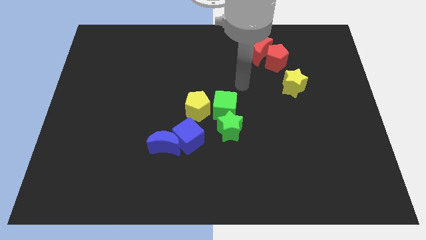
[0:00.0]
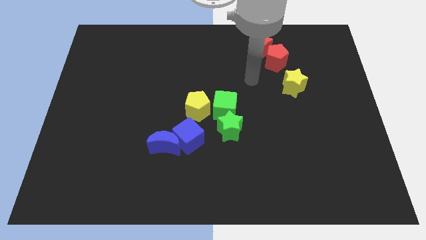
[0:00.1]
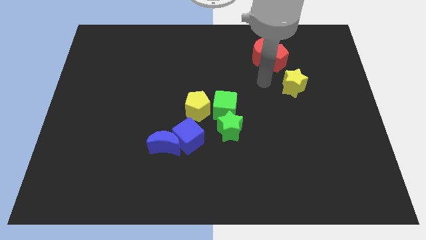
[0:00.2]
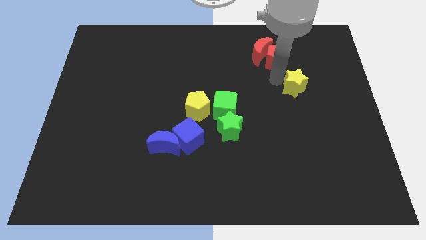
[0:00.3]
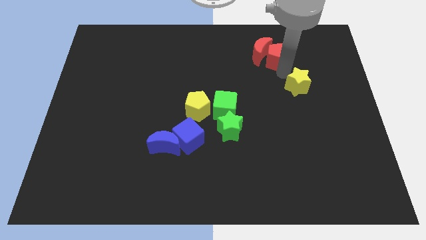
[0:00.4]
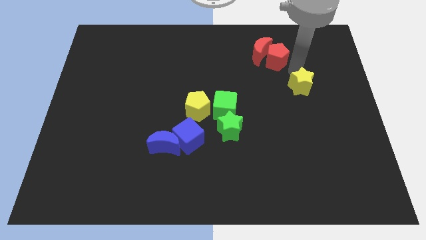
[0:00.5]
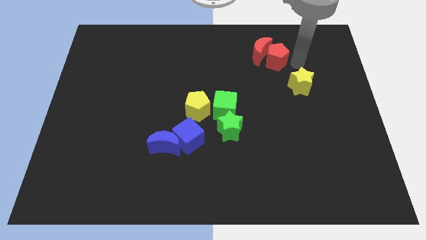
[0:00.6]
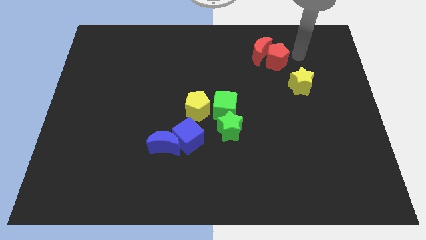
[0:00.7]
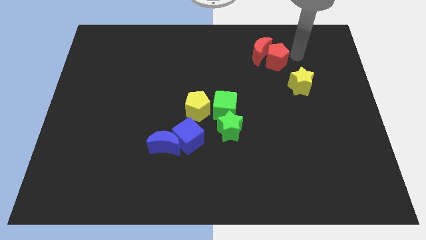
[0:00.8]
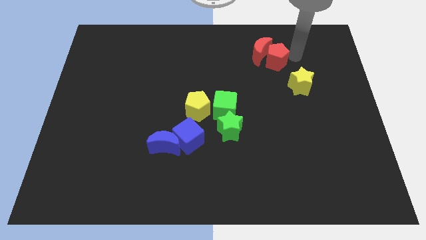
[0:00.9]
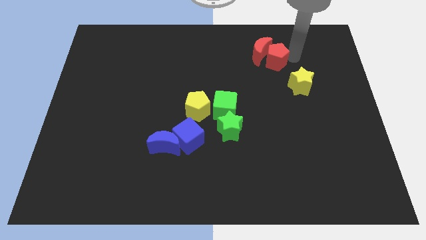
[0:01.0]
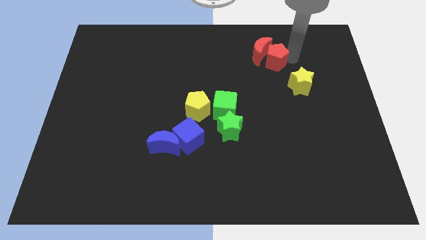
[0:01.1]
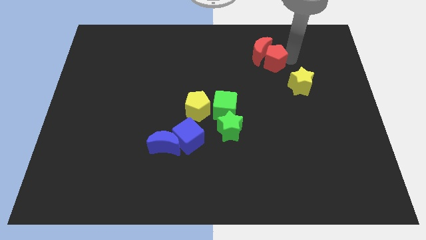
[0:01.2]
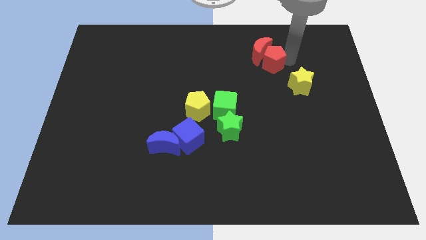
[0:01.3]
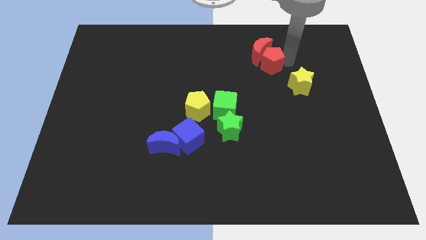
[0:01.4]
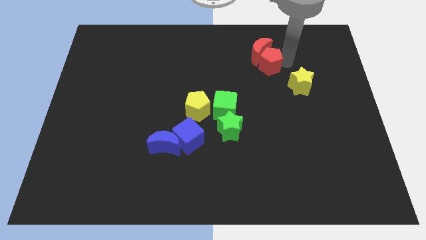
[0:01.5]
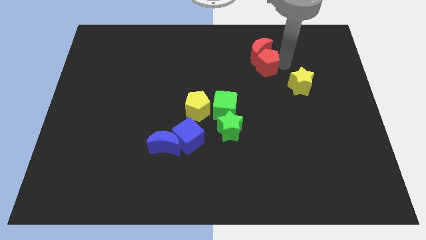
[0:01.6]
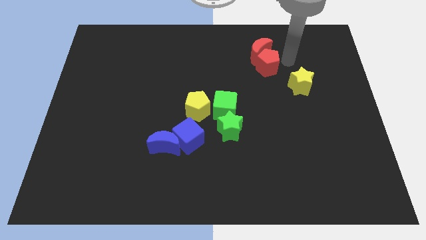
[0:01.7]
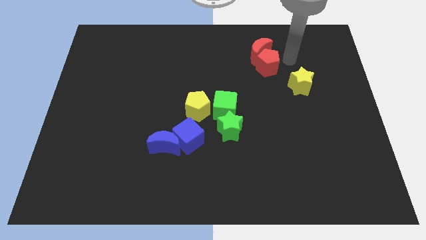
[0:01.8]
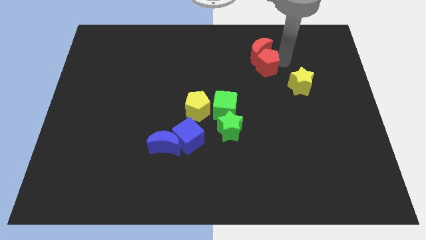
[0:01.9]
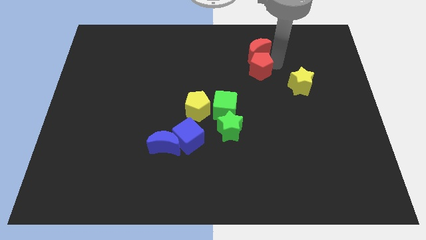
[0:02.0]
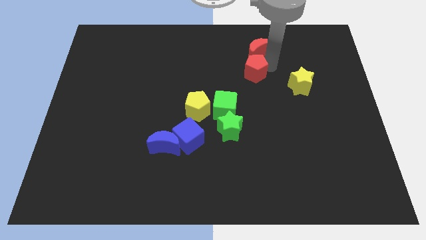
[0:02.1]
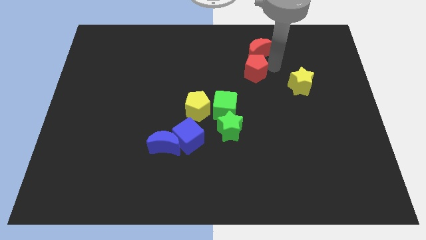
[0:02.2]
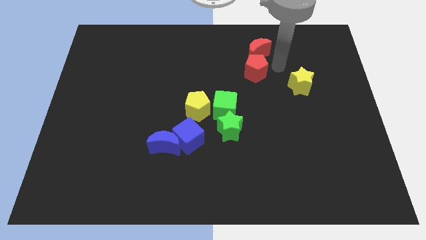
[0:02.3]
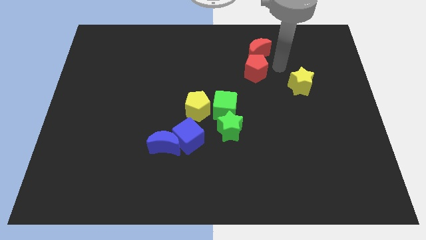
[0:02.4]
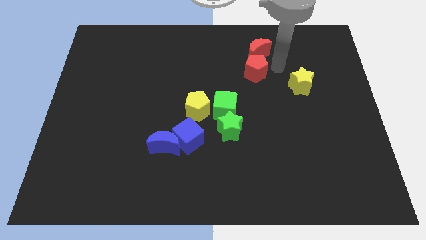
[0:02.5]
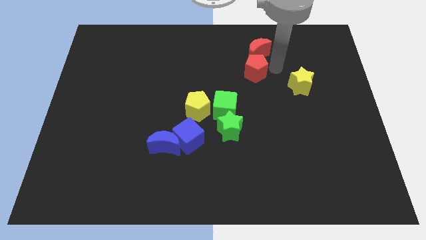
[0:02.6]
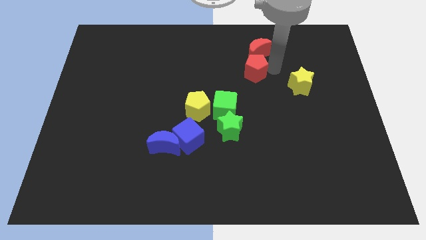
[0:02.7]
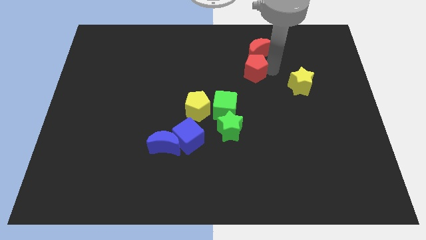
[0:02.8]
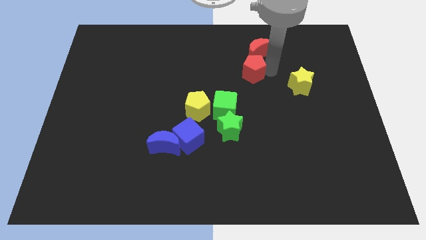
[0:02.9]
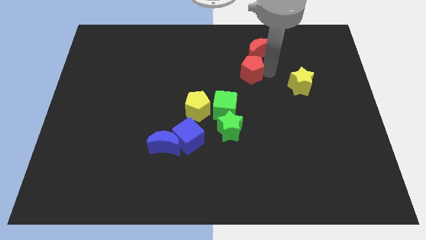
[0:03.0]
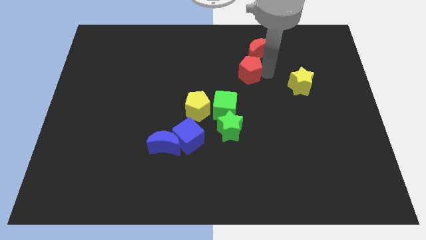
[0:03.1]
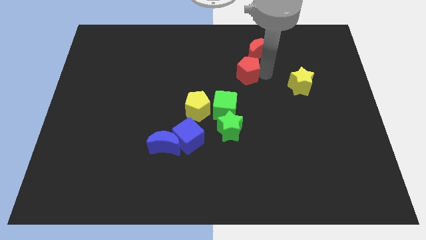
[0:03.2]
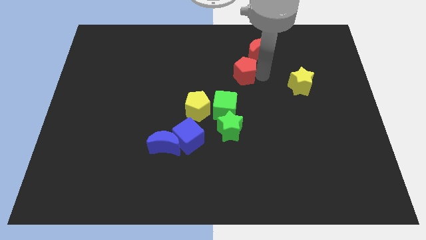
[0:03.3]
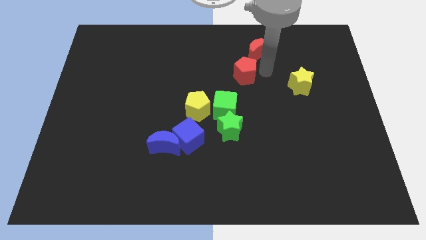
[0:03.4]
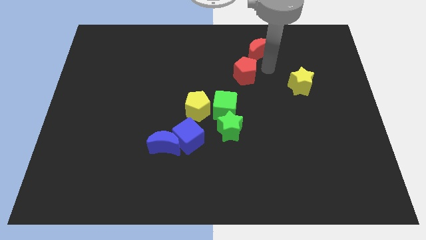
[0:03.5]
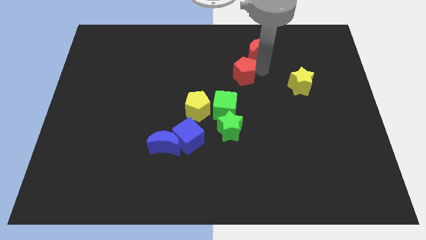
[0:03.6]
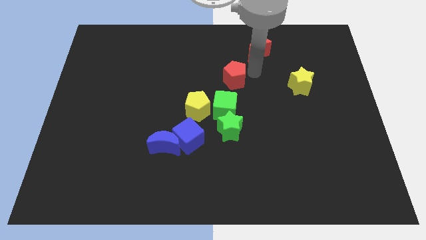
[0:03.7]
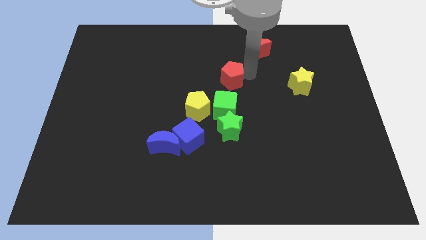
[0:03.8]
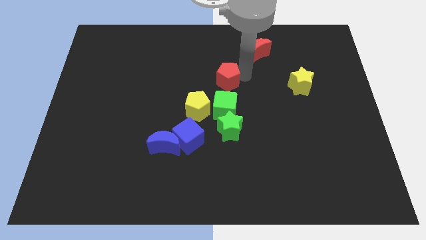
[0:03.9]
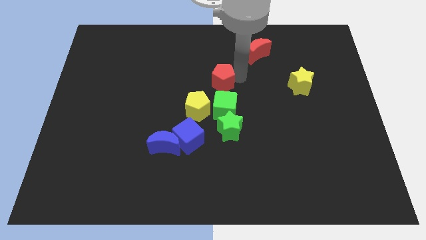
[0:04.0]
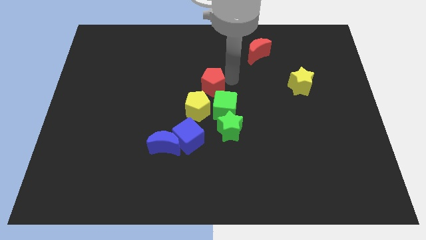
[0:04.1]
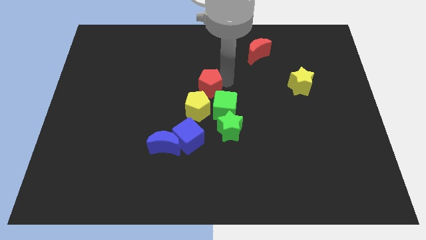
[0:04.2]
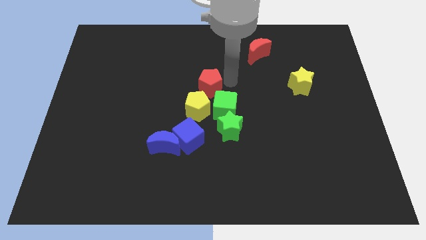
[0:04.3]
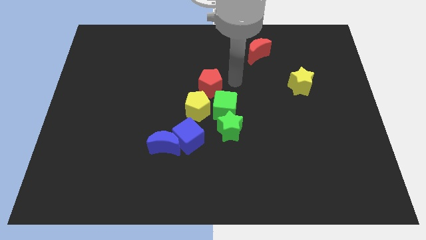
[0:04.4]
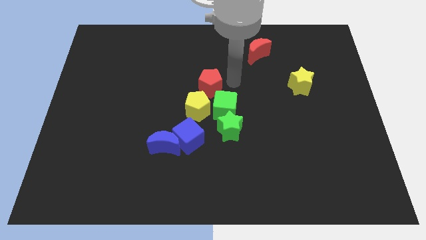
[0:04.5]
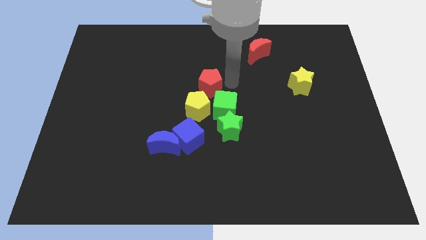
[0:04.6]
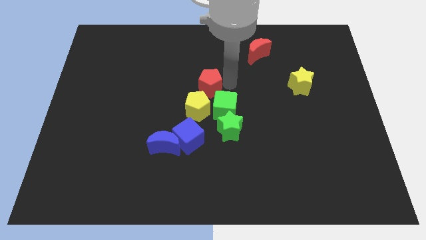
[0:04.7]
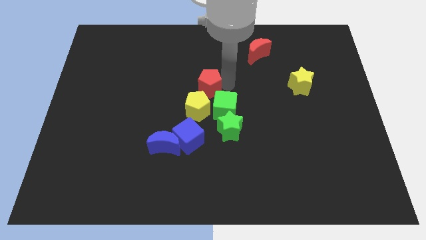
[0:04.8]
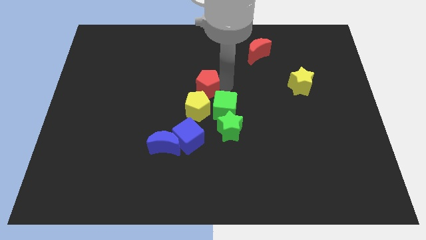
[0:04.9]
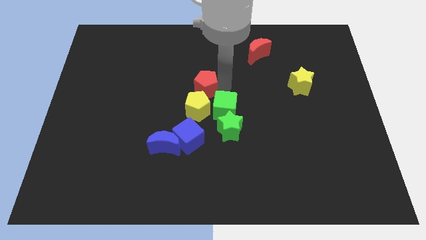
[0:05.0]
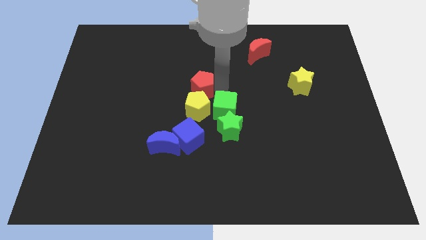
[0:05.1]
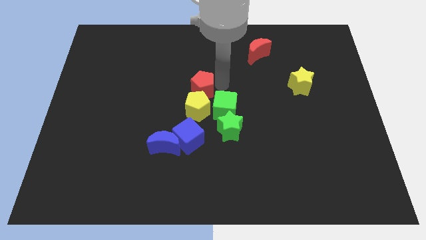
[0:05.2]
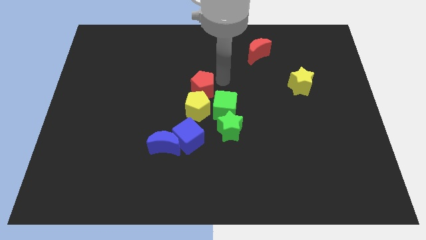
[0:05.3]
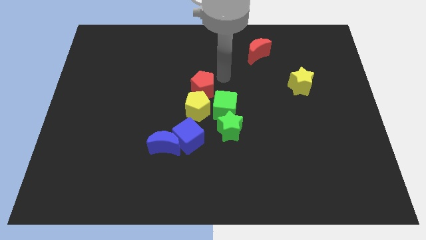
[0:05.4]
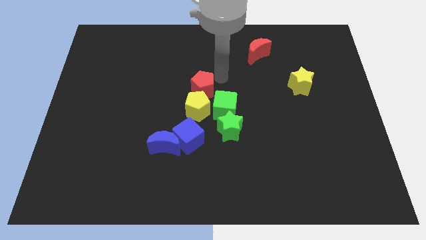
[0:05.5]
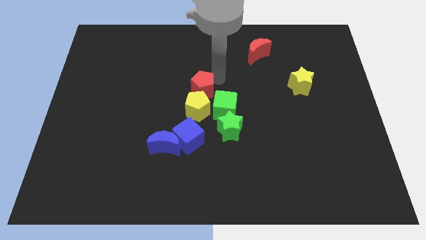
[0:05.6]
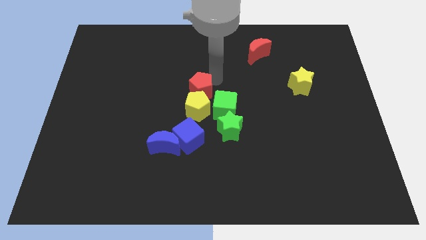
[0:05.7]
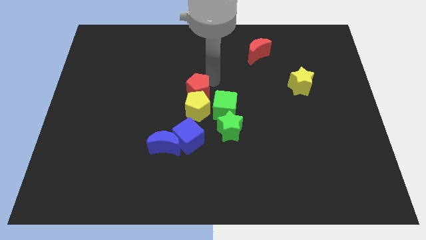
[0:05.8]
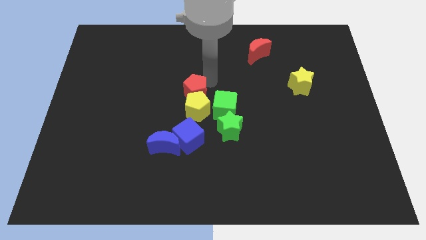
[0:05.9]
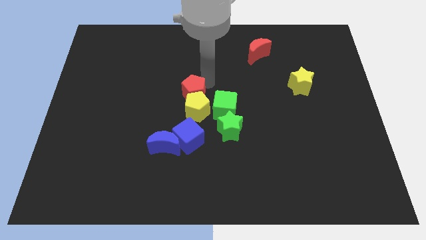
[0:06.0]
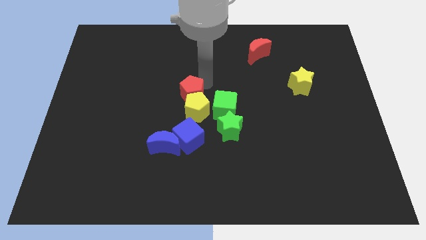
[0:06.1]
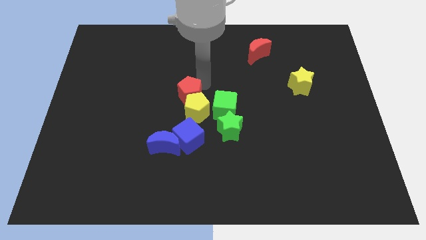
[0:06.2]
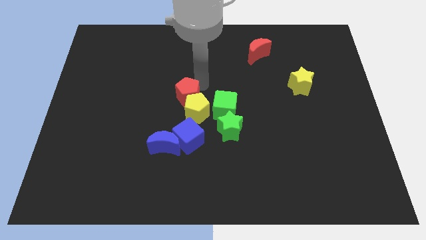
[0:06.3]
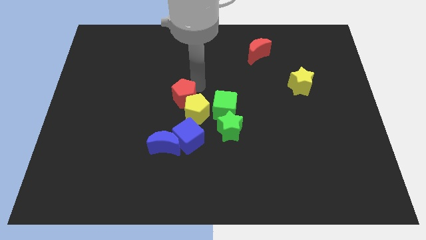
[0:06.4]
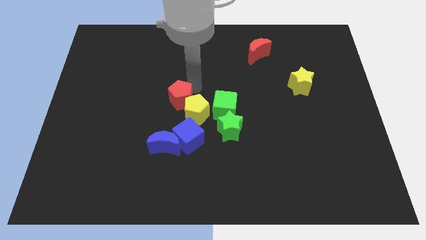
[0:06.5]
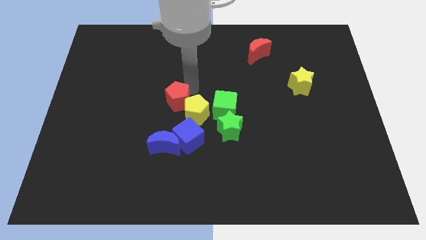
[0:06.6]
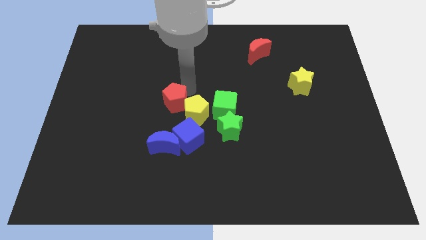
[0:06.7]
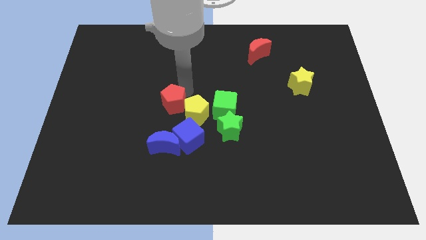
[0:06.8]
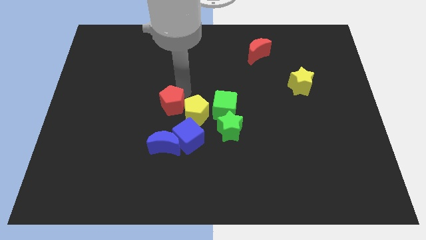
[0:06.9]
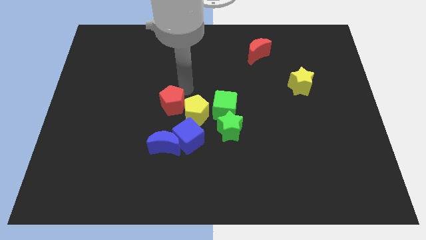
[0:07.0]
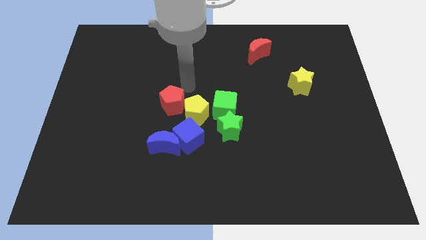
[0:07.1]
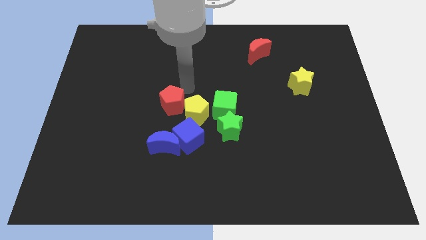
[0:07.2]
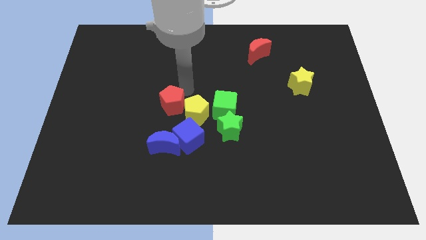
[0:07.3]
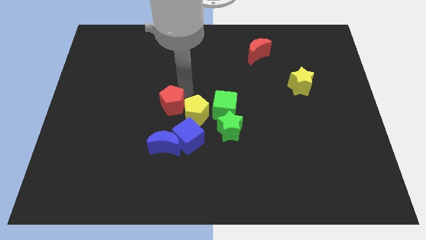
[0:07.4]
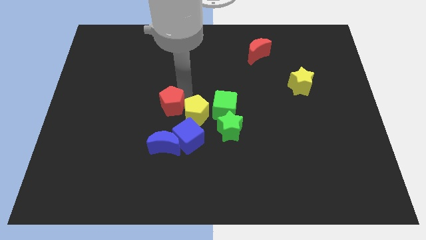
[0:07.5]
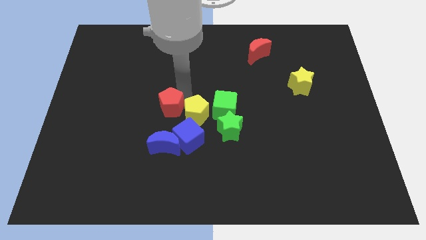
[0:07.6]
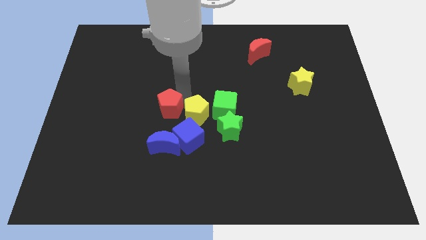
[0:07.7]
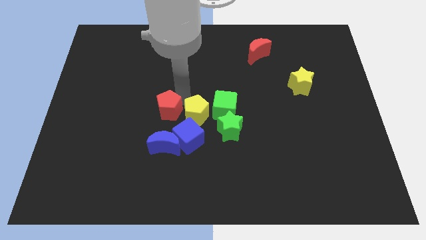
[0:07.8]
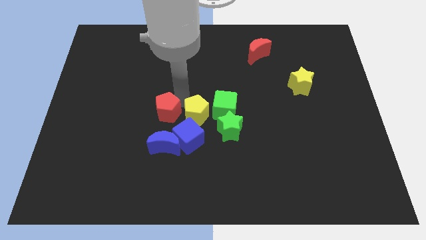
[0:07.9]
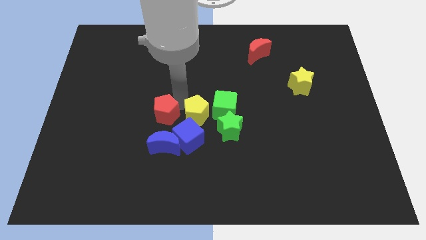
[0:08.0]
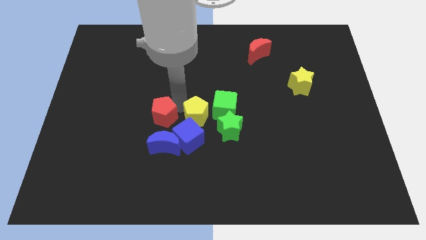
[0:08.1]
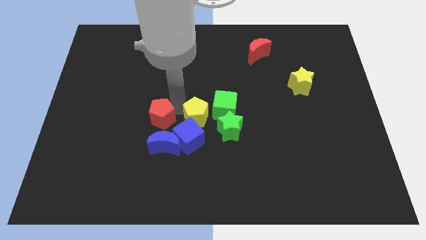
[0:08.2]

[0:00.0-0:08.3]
push the red pentagon diagonally up and to the left of the blue moon
